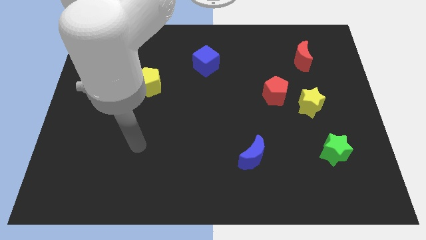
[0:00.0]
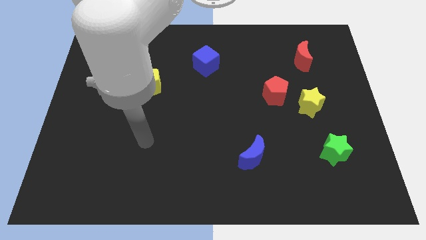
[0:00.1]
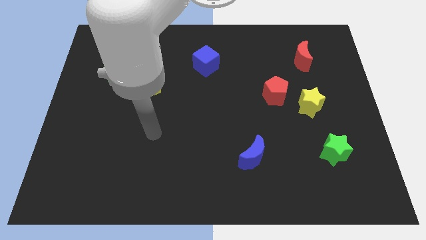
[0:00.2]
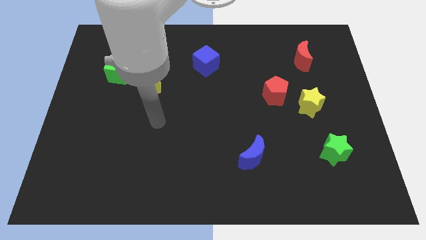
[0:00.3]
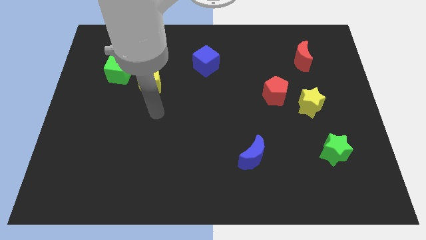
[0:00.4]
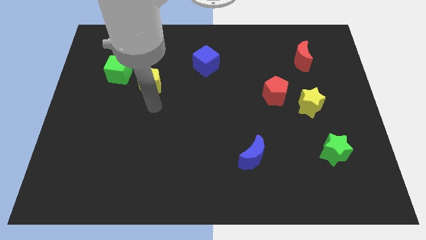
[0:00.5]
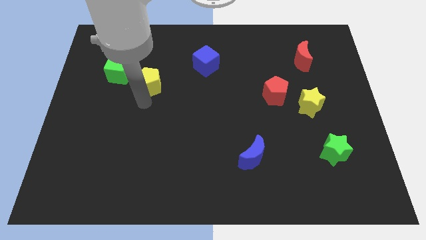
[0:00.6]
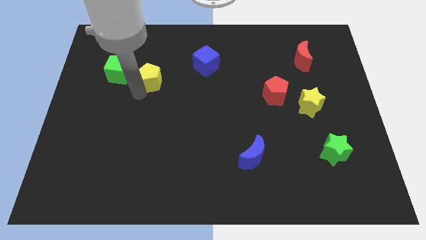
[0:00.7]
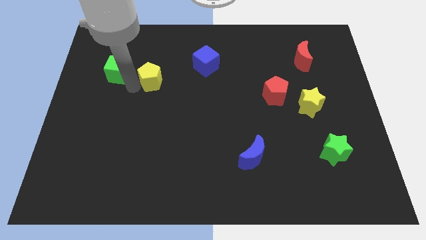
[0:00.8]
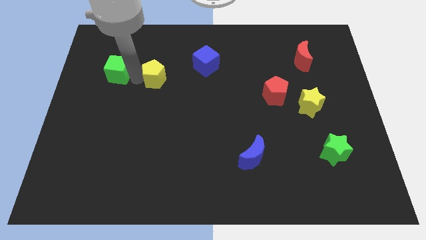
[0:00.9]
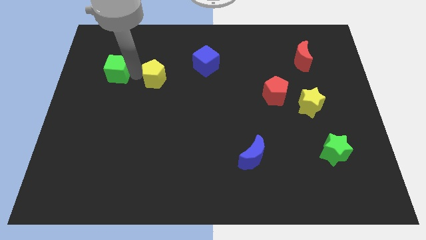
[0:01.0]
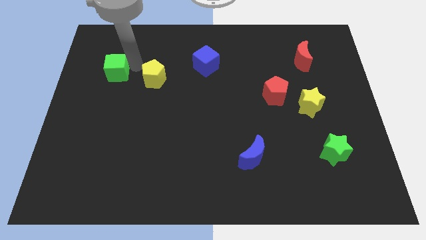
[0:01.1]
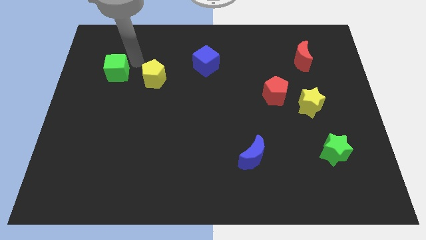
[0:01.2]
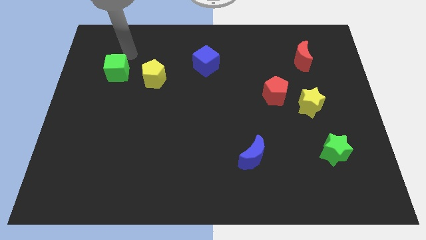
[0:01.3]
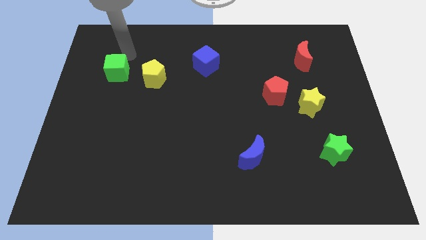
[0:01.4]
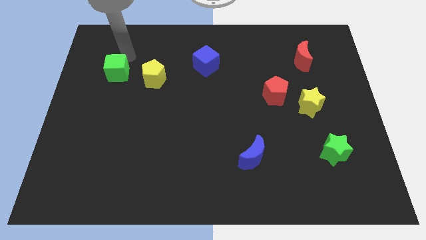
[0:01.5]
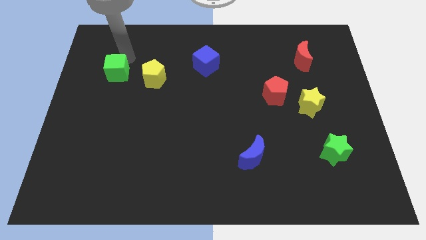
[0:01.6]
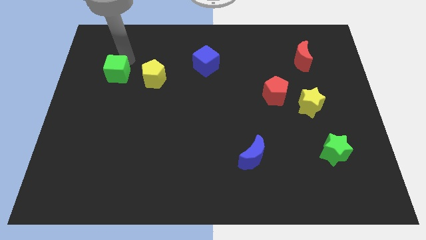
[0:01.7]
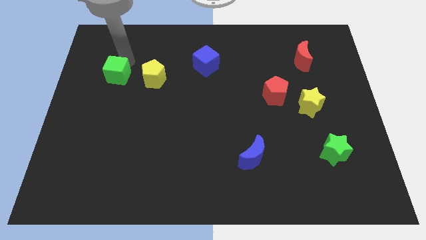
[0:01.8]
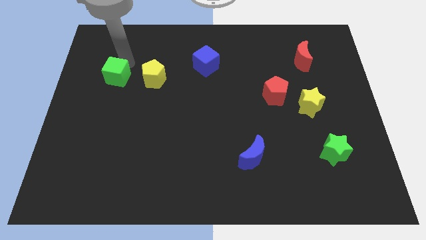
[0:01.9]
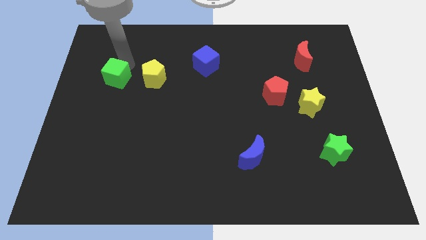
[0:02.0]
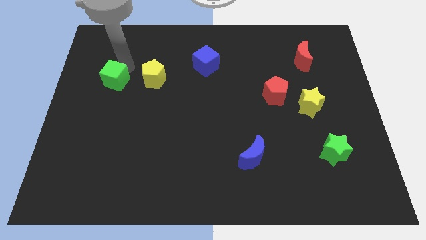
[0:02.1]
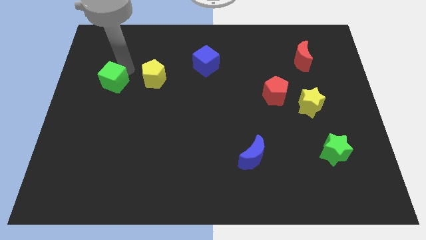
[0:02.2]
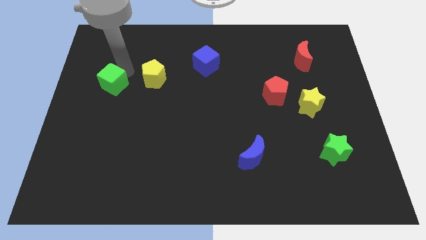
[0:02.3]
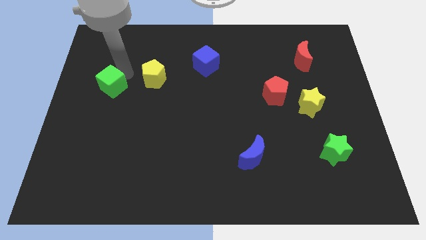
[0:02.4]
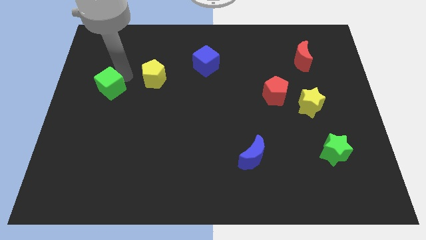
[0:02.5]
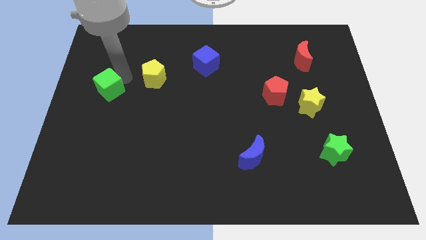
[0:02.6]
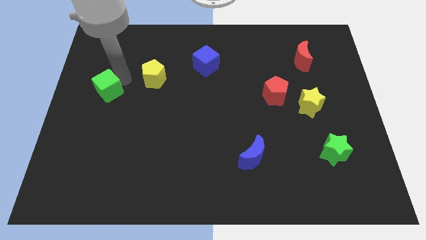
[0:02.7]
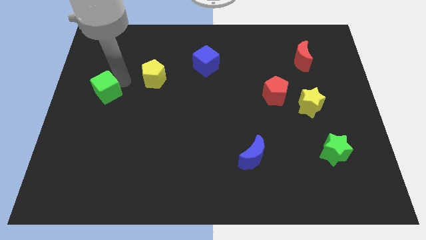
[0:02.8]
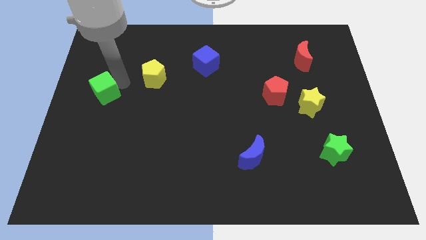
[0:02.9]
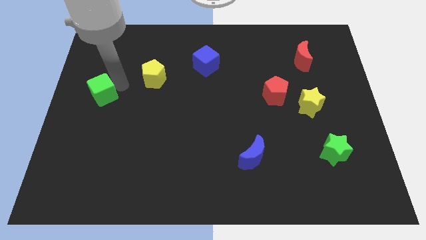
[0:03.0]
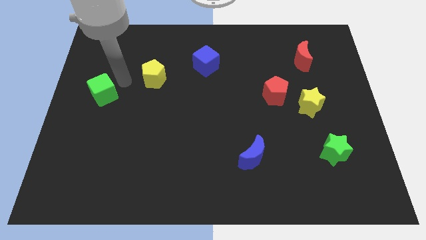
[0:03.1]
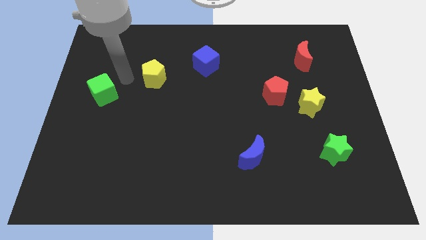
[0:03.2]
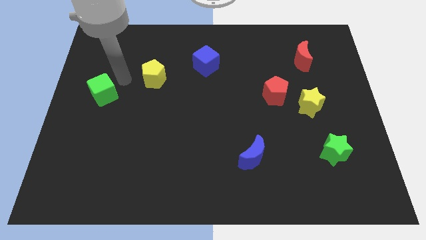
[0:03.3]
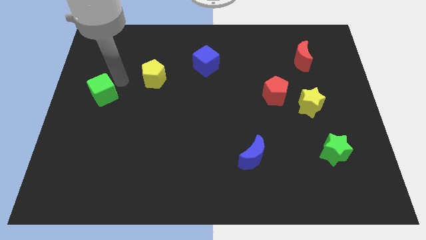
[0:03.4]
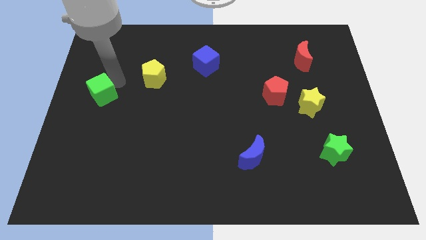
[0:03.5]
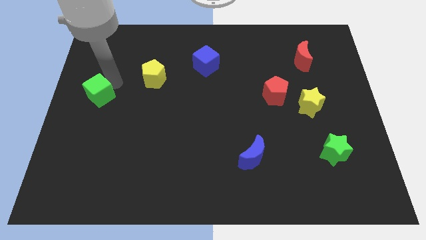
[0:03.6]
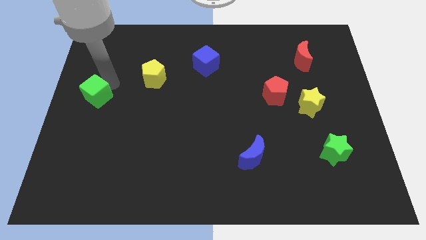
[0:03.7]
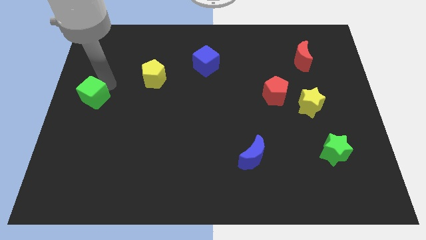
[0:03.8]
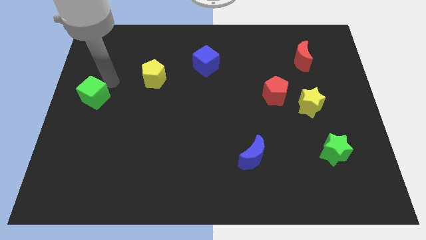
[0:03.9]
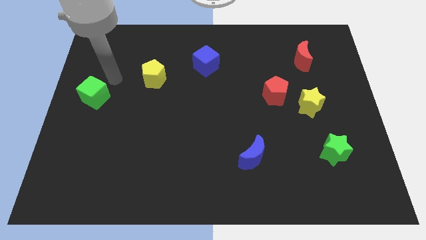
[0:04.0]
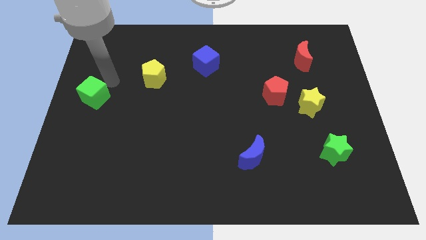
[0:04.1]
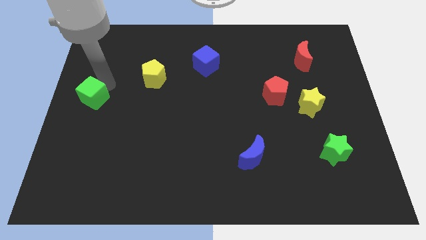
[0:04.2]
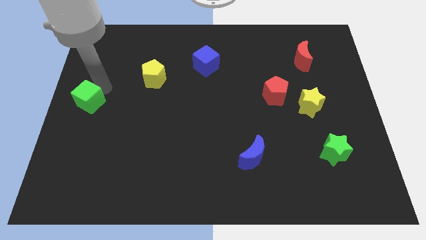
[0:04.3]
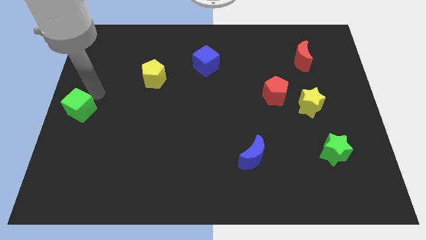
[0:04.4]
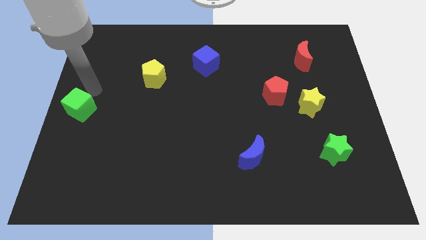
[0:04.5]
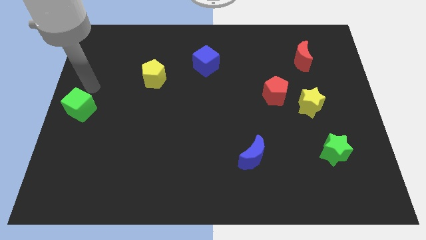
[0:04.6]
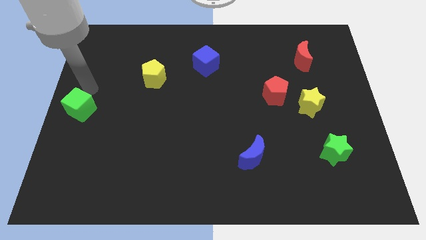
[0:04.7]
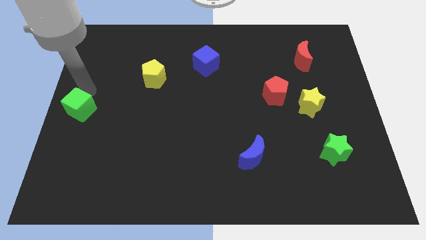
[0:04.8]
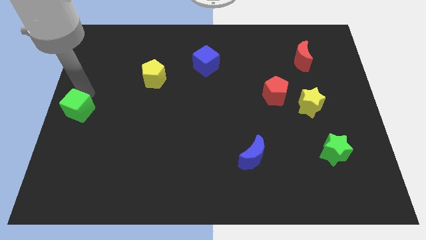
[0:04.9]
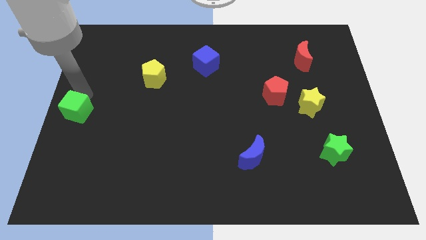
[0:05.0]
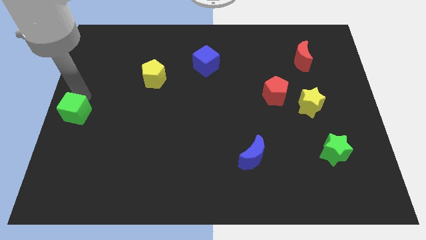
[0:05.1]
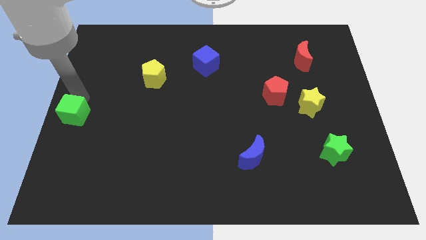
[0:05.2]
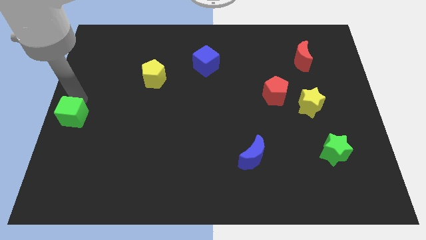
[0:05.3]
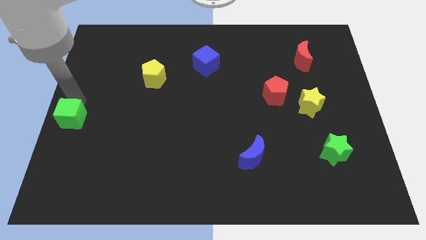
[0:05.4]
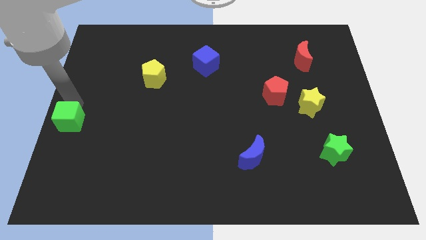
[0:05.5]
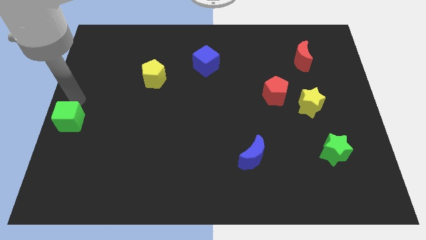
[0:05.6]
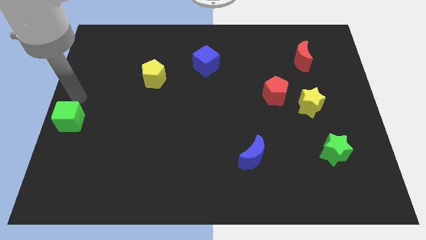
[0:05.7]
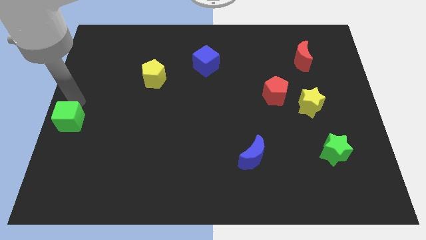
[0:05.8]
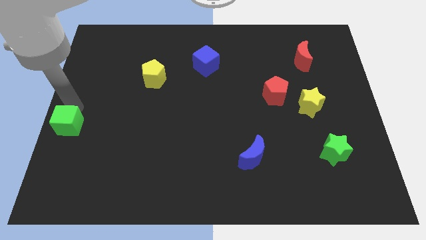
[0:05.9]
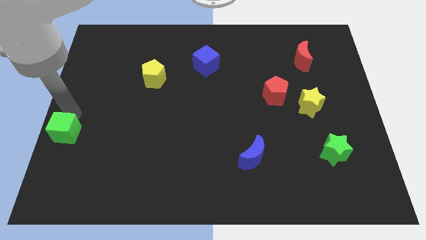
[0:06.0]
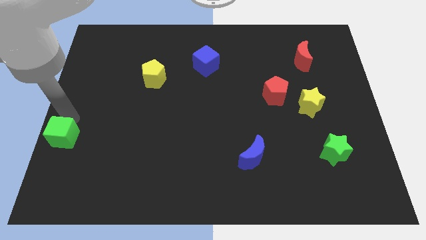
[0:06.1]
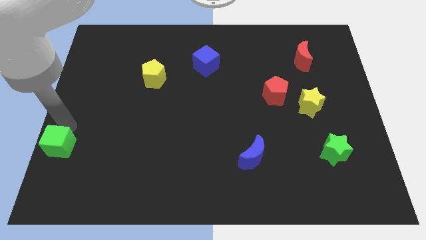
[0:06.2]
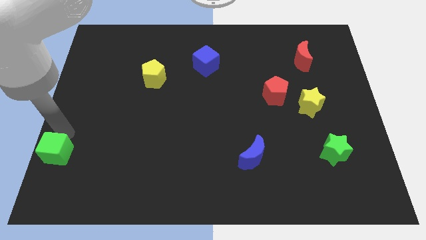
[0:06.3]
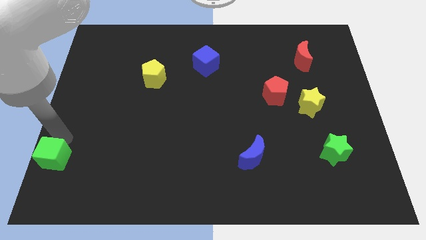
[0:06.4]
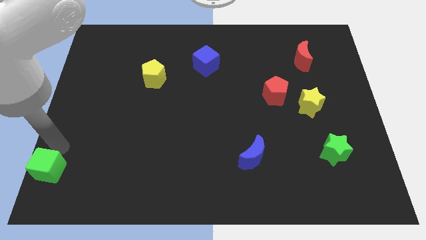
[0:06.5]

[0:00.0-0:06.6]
move the green cube to the bottom left

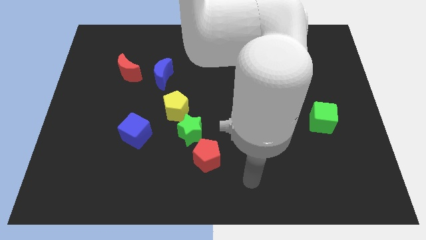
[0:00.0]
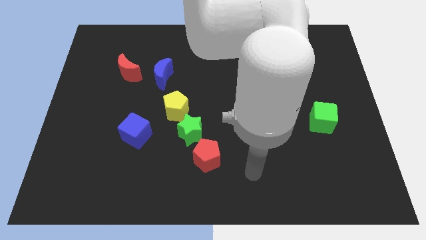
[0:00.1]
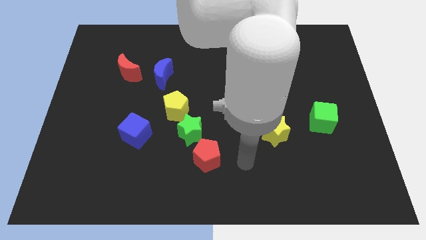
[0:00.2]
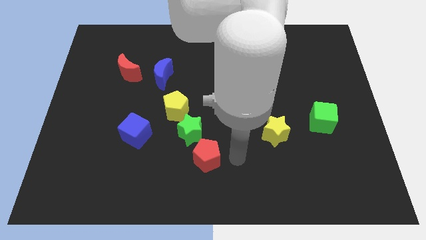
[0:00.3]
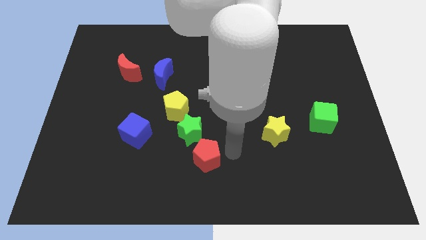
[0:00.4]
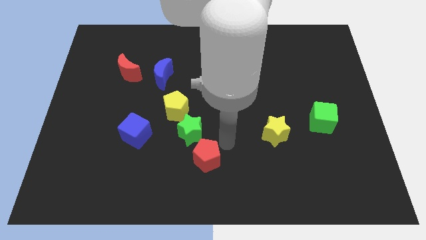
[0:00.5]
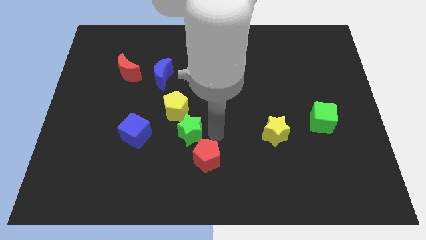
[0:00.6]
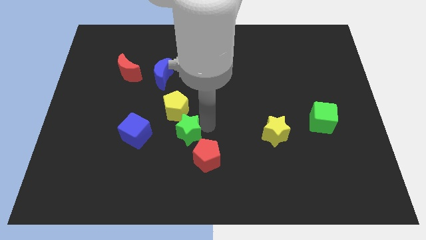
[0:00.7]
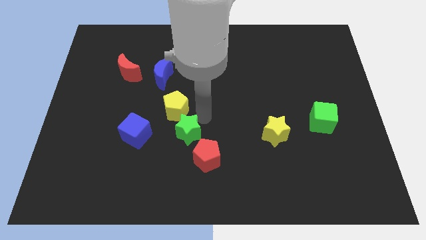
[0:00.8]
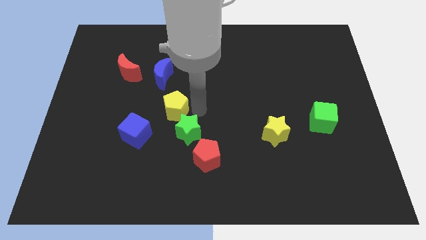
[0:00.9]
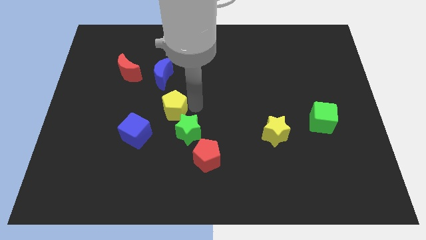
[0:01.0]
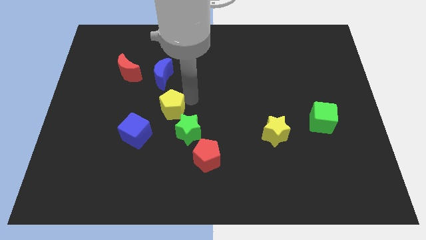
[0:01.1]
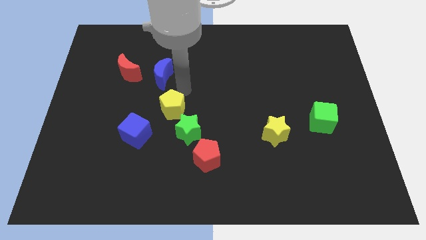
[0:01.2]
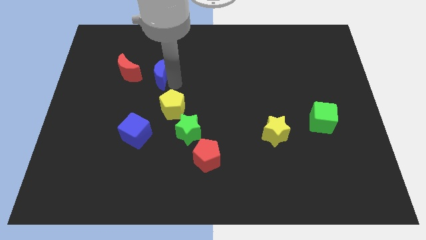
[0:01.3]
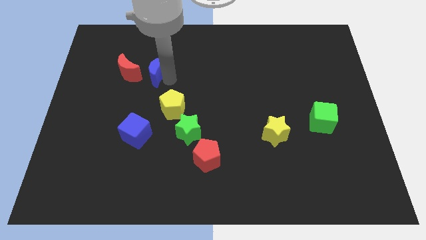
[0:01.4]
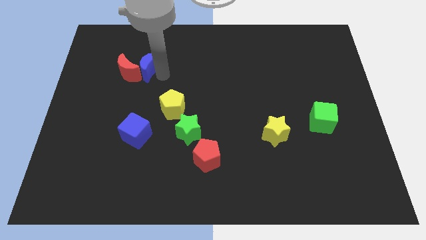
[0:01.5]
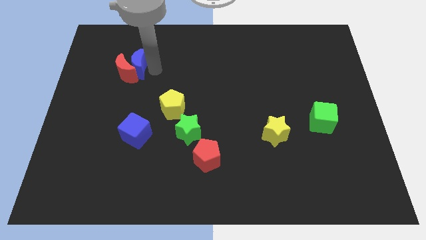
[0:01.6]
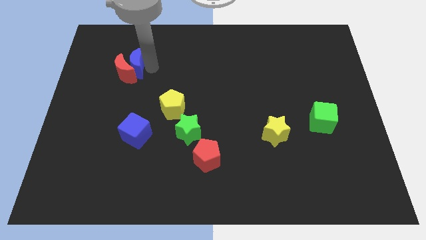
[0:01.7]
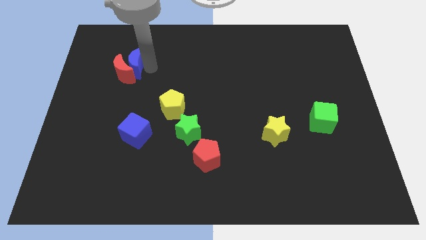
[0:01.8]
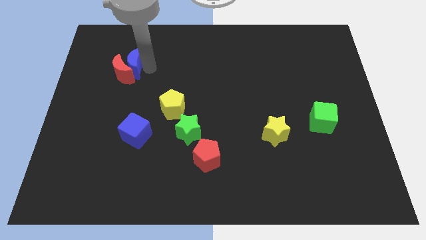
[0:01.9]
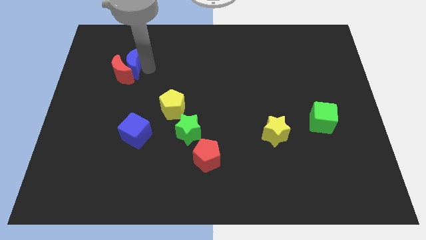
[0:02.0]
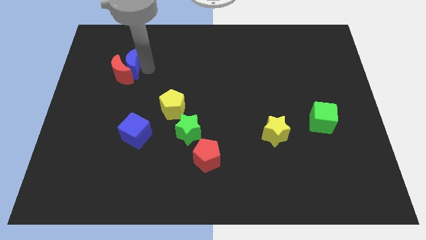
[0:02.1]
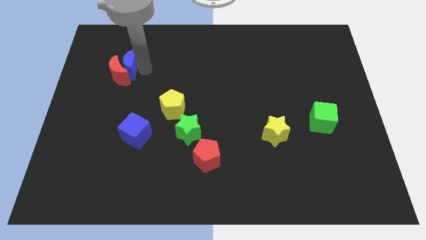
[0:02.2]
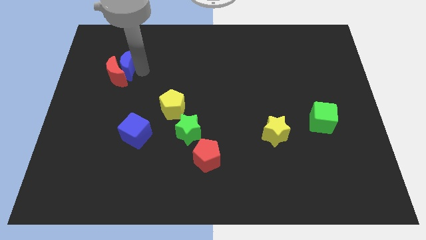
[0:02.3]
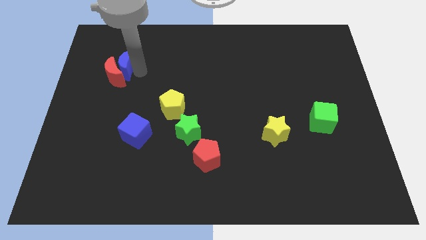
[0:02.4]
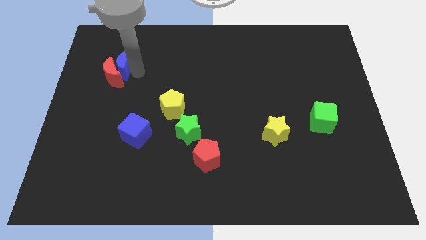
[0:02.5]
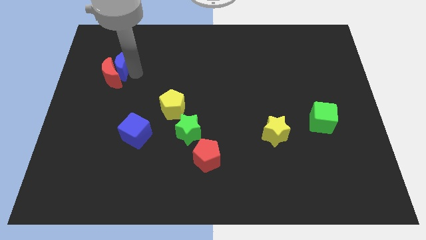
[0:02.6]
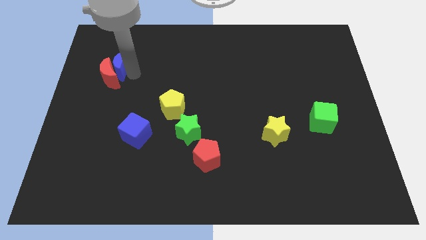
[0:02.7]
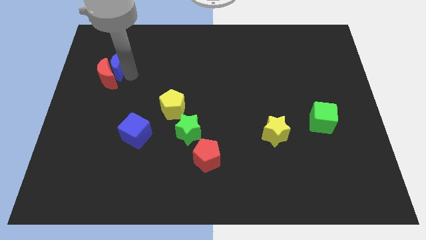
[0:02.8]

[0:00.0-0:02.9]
put the red moon to the center left
